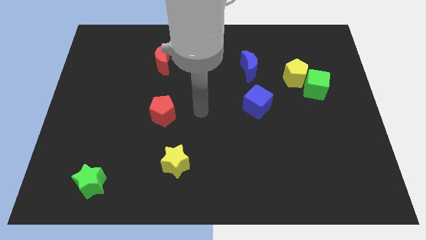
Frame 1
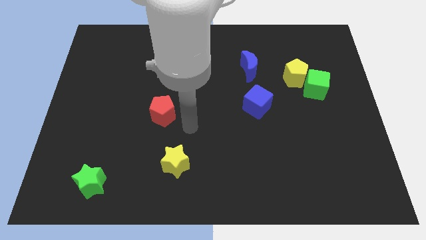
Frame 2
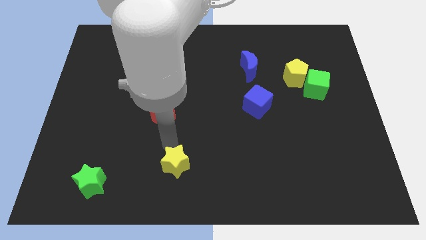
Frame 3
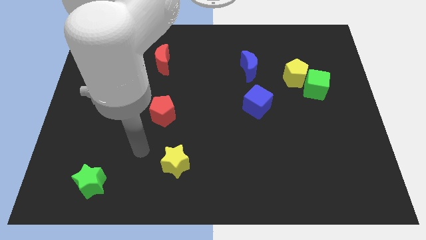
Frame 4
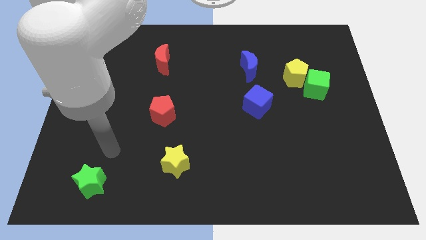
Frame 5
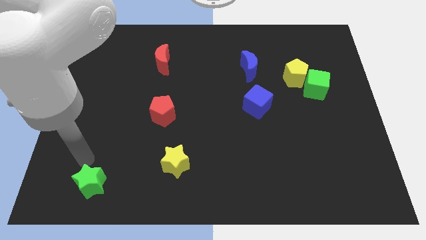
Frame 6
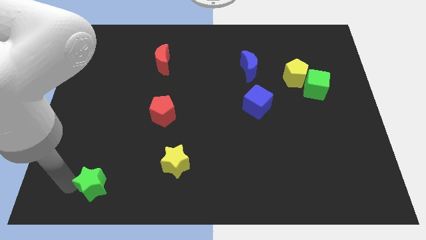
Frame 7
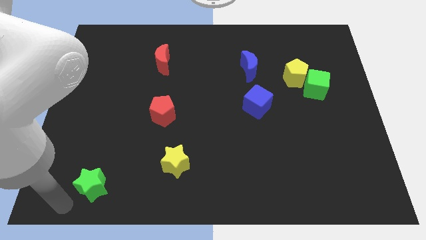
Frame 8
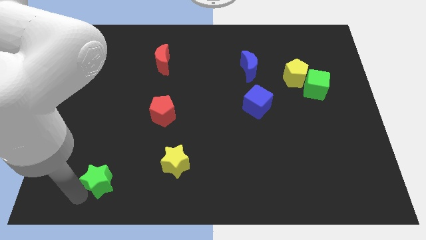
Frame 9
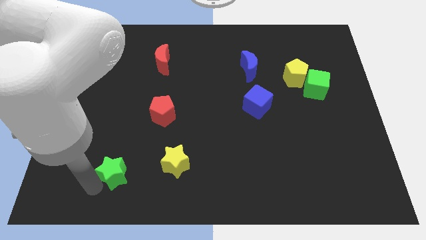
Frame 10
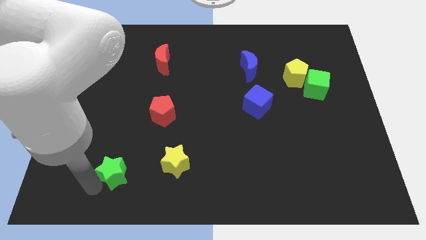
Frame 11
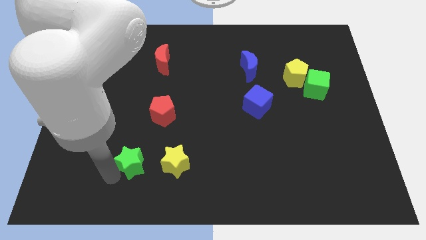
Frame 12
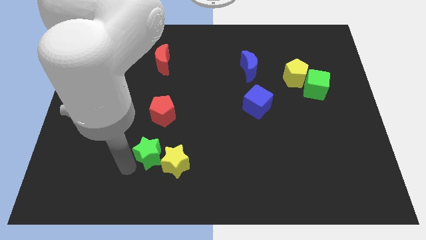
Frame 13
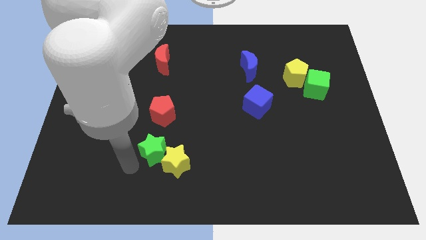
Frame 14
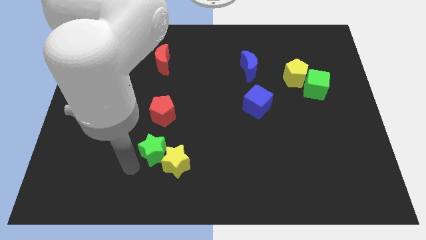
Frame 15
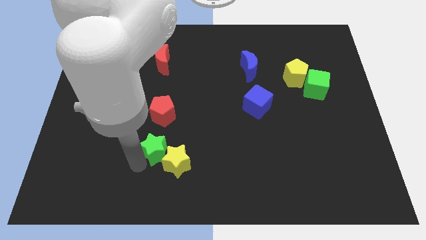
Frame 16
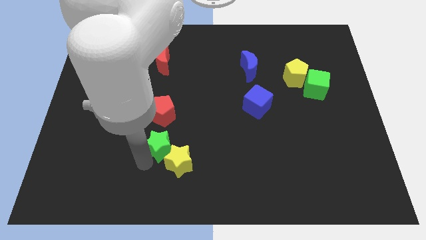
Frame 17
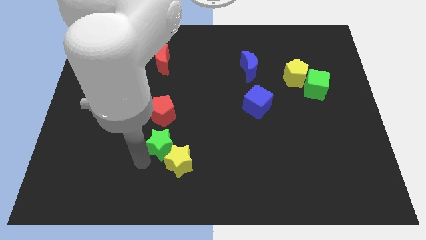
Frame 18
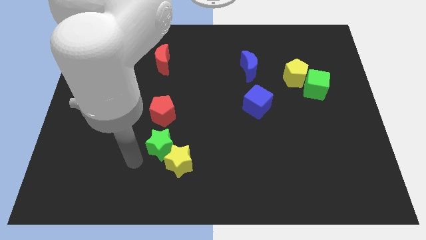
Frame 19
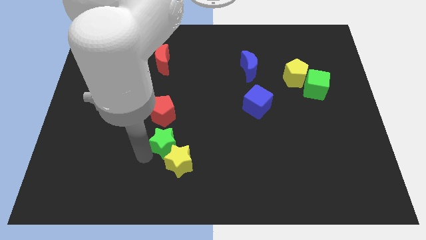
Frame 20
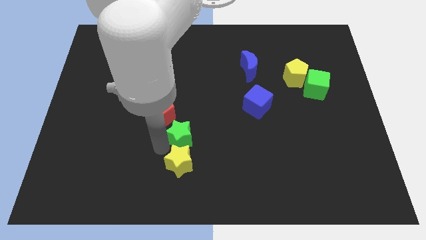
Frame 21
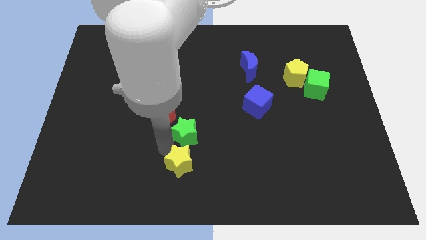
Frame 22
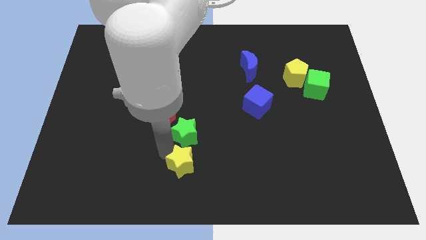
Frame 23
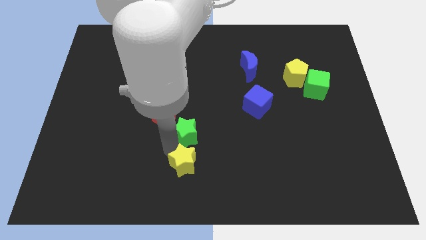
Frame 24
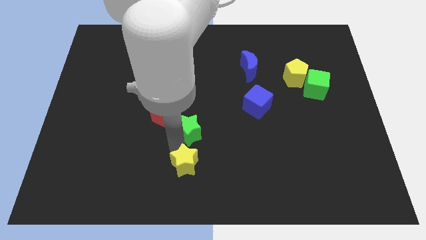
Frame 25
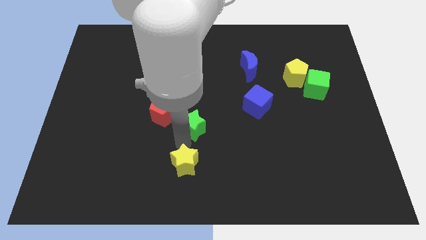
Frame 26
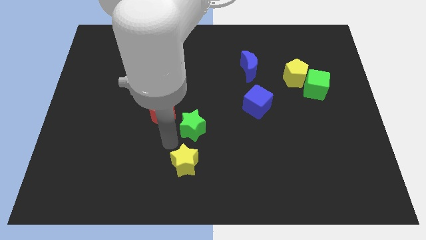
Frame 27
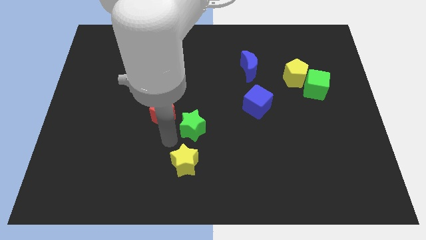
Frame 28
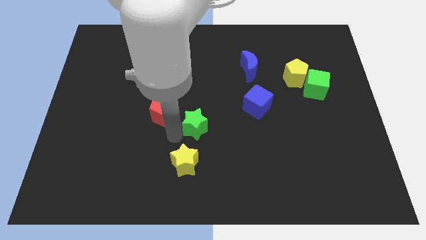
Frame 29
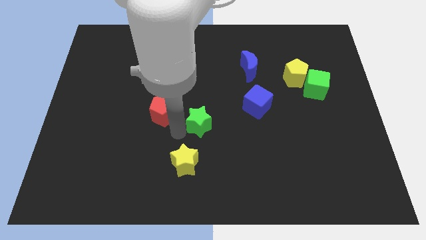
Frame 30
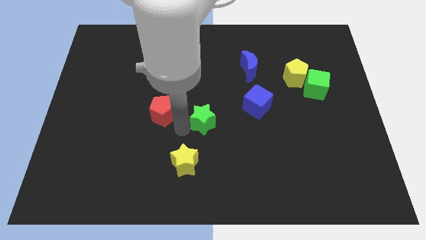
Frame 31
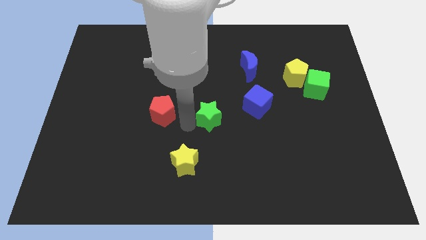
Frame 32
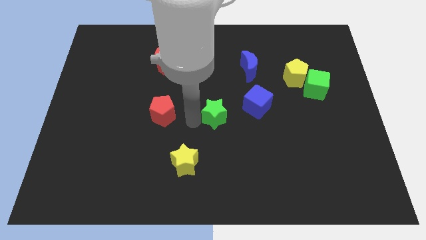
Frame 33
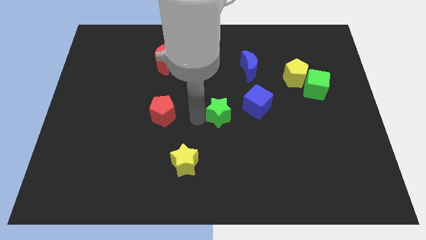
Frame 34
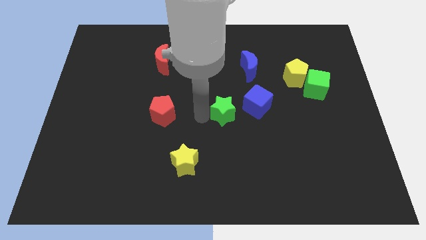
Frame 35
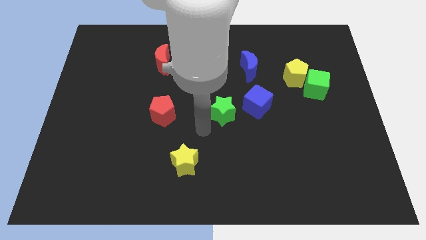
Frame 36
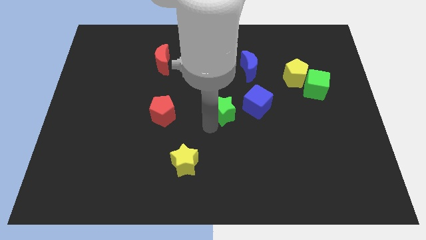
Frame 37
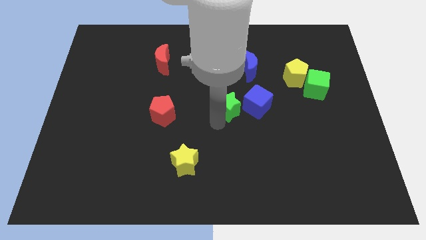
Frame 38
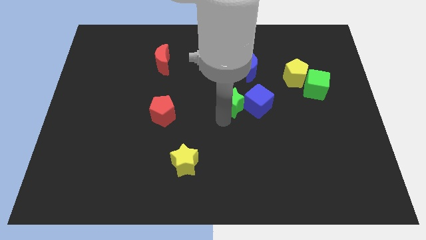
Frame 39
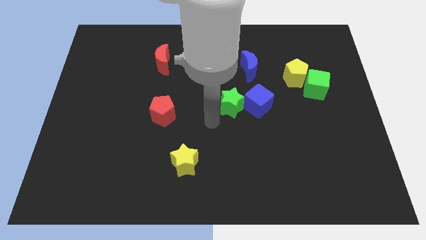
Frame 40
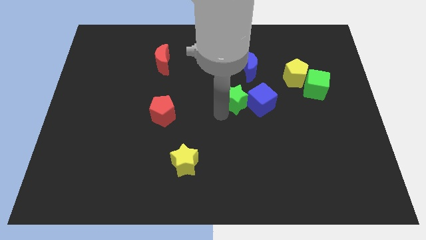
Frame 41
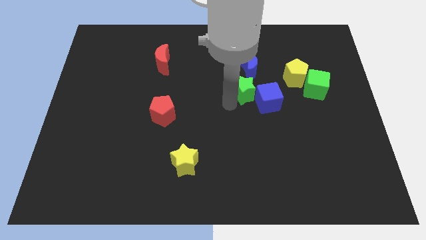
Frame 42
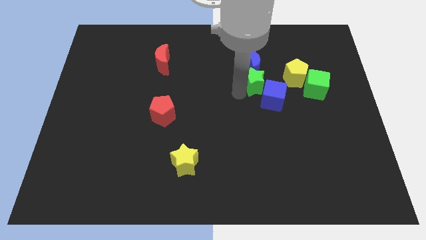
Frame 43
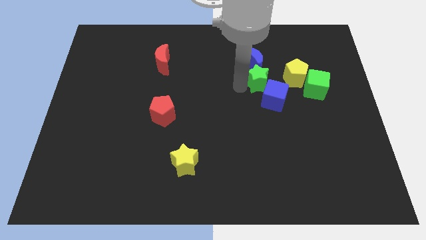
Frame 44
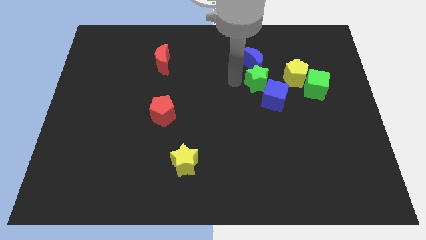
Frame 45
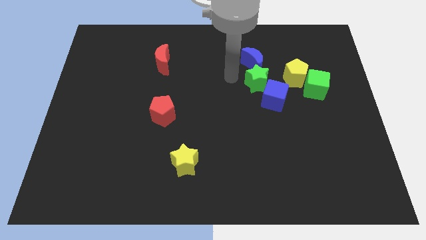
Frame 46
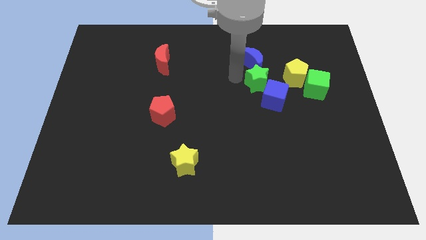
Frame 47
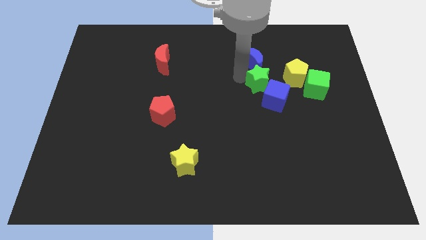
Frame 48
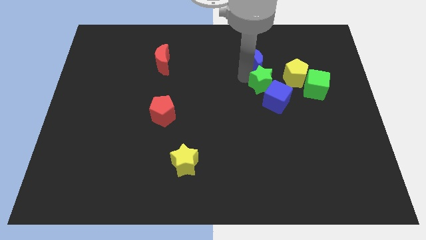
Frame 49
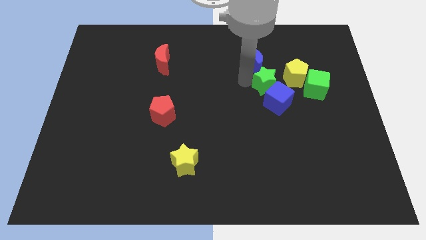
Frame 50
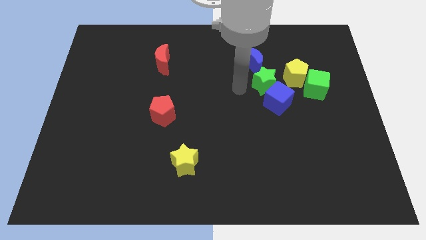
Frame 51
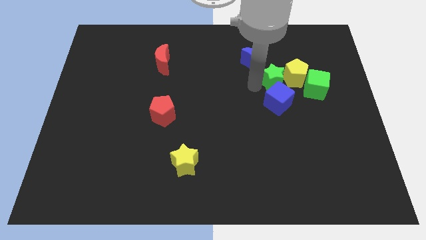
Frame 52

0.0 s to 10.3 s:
push the green star to the yellow pentagon

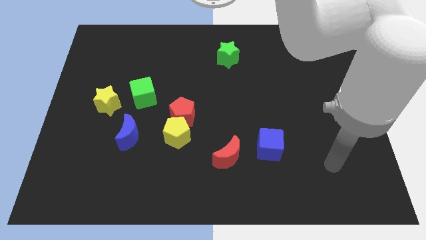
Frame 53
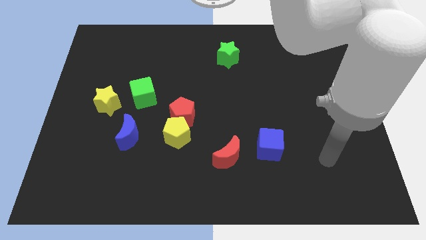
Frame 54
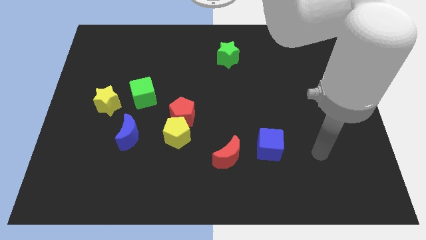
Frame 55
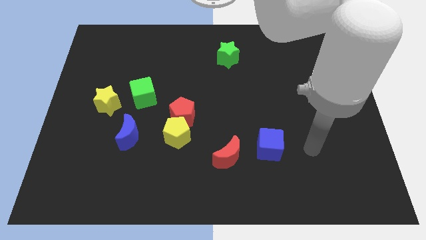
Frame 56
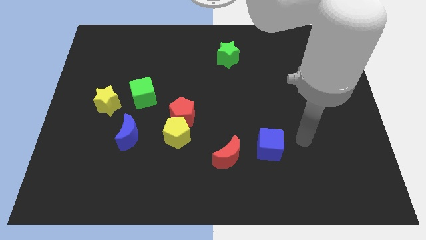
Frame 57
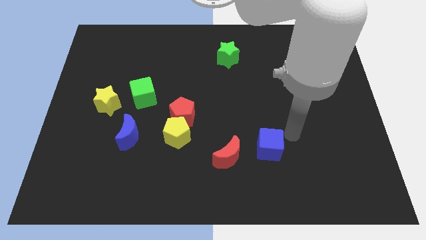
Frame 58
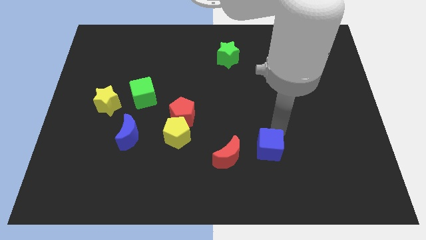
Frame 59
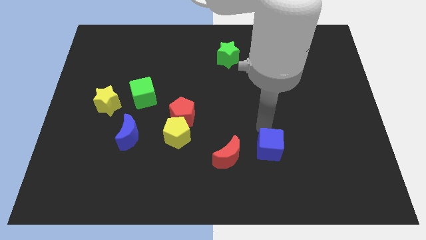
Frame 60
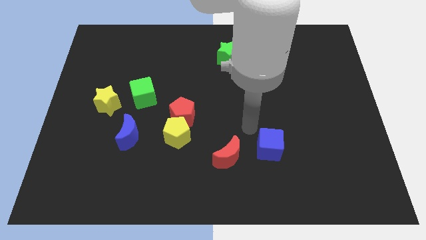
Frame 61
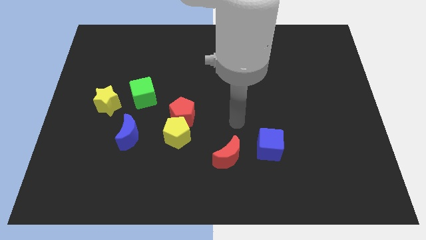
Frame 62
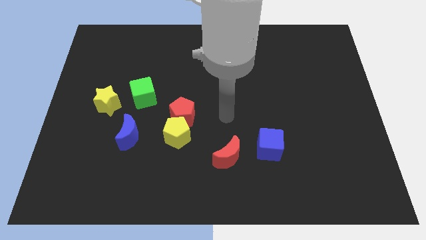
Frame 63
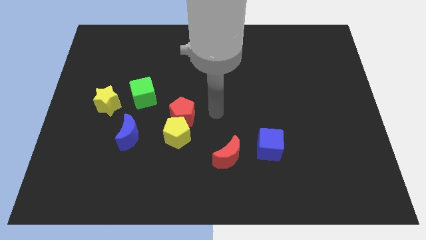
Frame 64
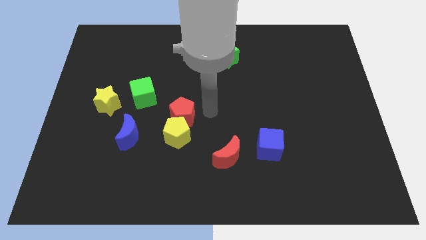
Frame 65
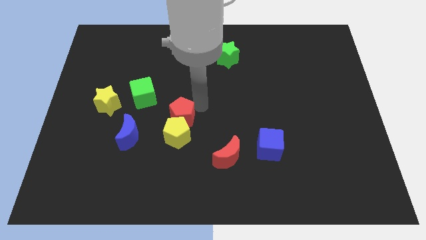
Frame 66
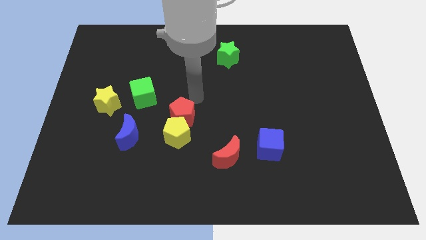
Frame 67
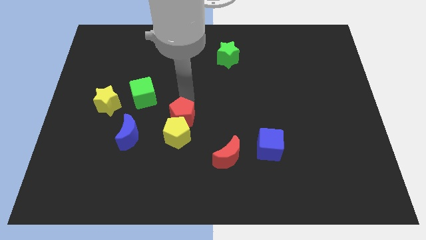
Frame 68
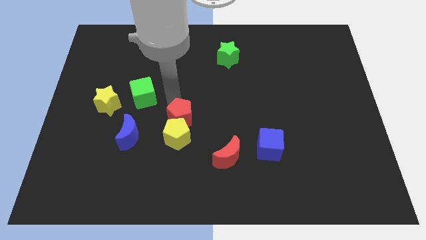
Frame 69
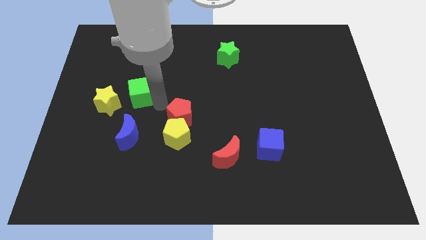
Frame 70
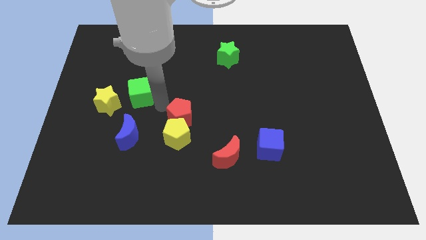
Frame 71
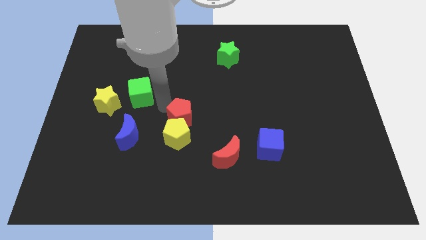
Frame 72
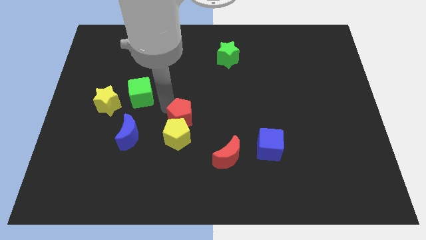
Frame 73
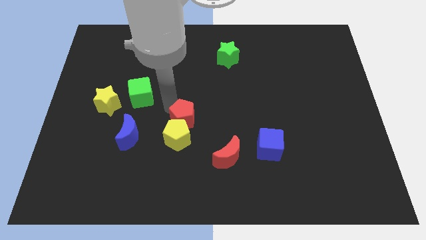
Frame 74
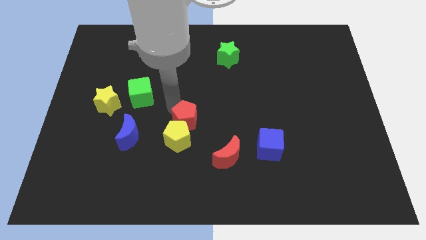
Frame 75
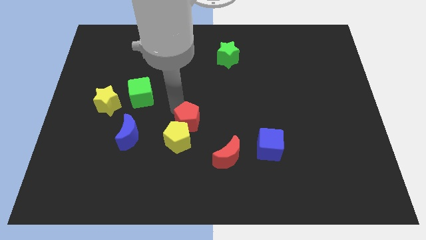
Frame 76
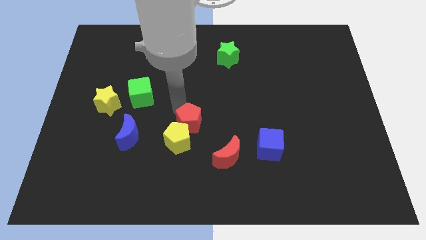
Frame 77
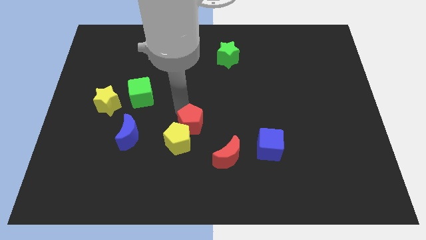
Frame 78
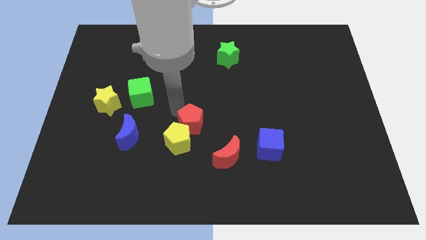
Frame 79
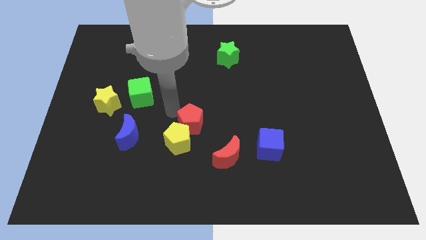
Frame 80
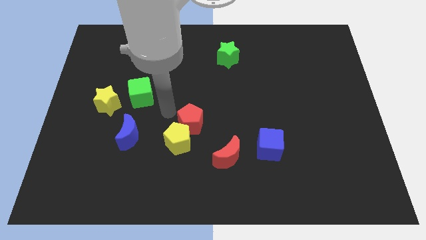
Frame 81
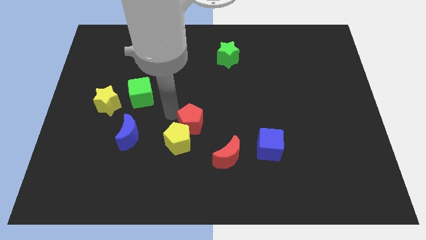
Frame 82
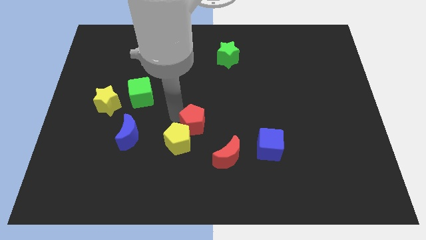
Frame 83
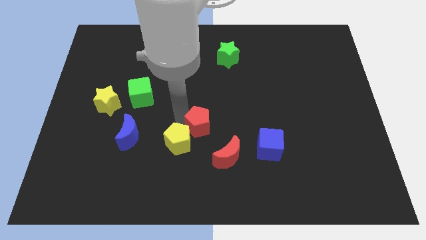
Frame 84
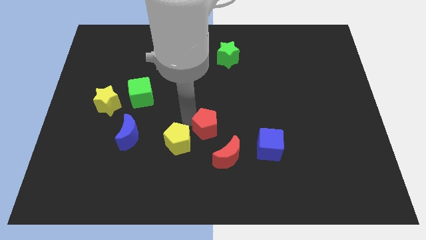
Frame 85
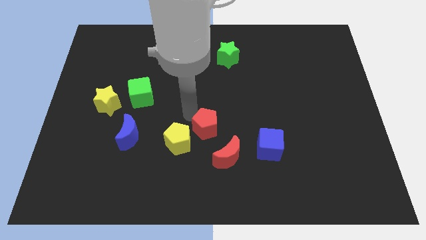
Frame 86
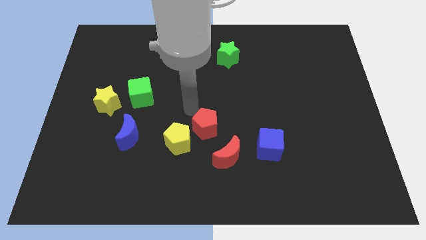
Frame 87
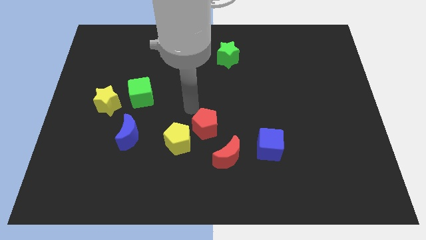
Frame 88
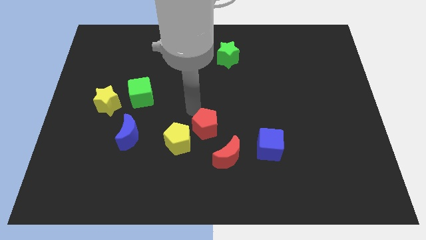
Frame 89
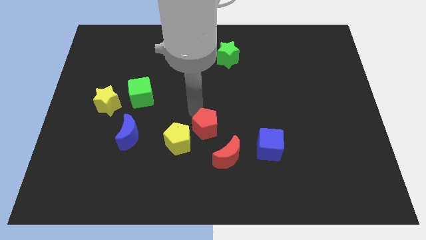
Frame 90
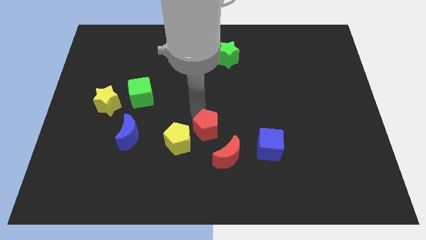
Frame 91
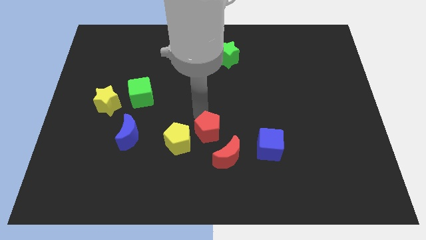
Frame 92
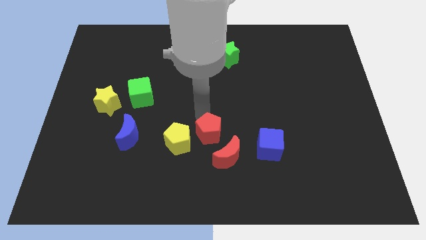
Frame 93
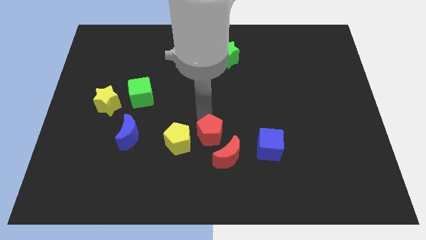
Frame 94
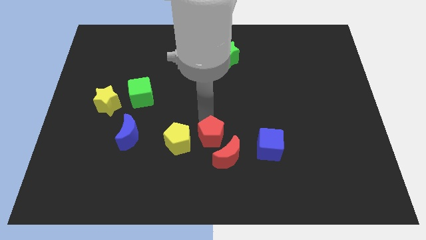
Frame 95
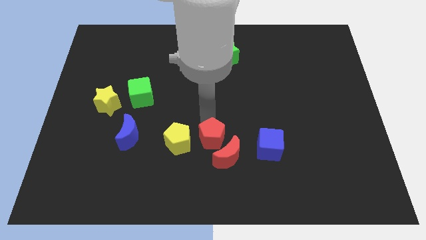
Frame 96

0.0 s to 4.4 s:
put the red pentagon to the red moon
